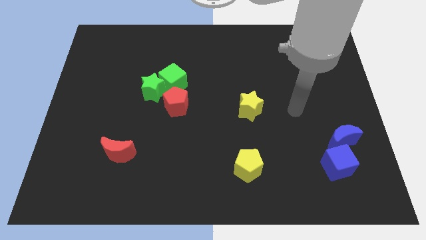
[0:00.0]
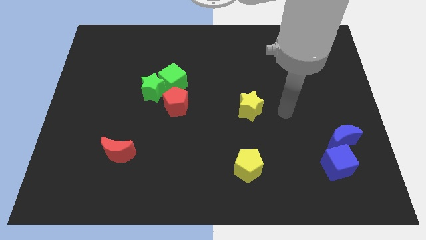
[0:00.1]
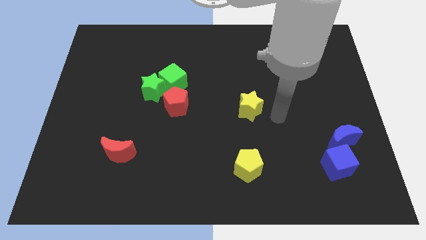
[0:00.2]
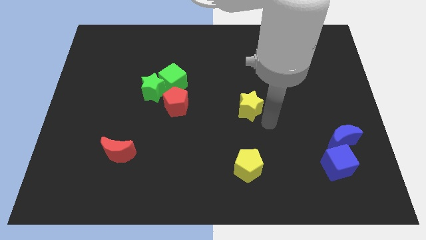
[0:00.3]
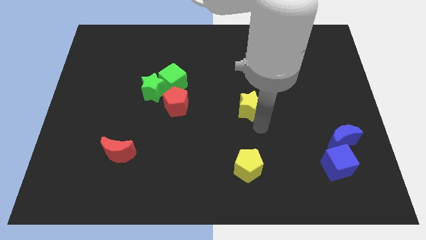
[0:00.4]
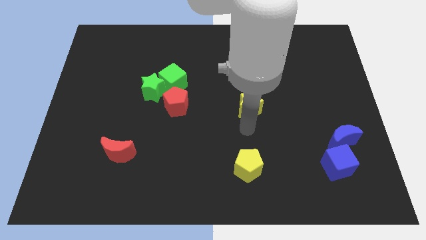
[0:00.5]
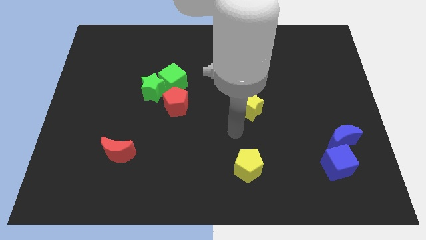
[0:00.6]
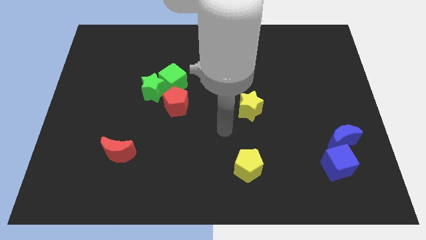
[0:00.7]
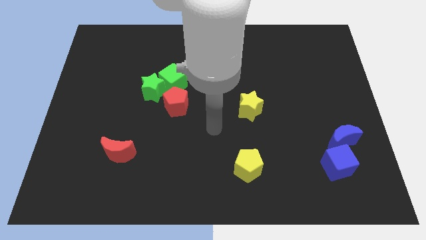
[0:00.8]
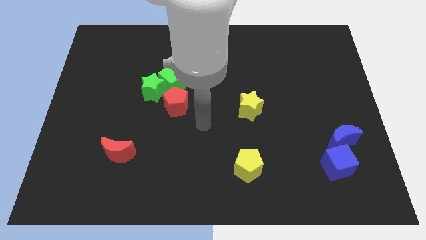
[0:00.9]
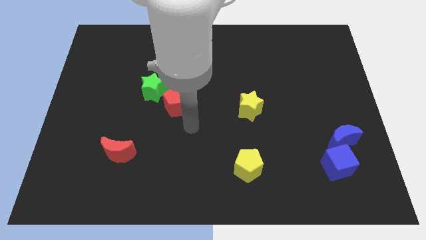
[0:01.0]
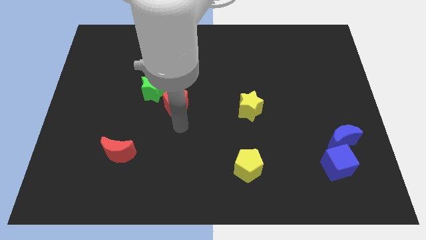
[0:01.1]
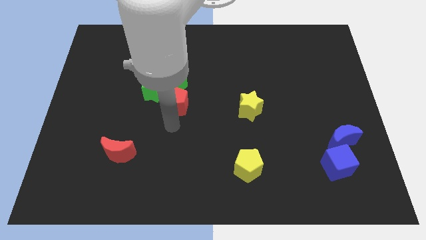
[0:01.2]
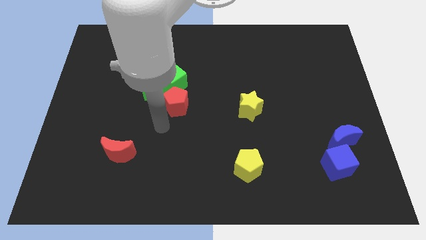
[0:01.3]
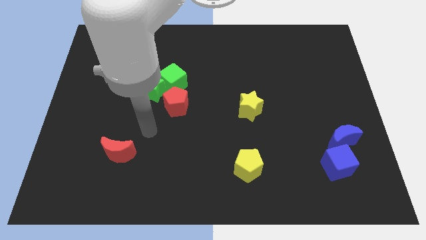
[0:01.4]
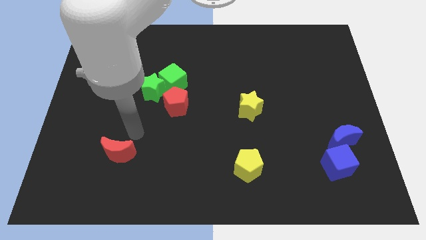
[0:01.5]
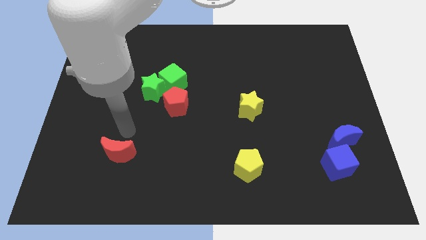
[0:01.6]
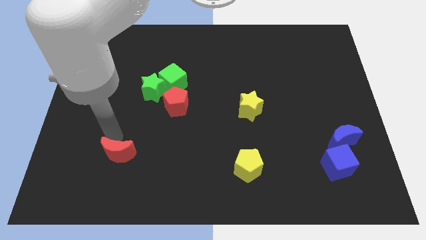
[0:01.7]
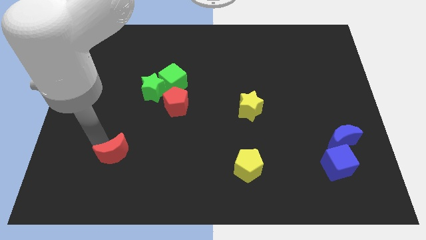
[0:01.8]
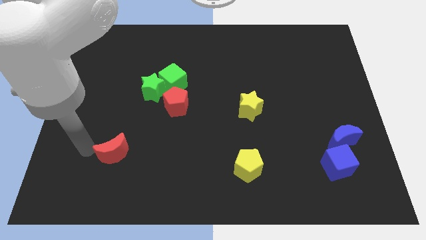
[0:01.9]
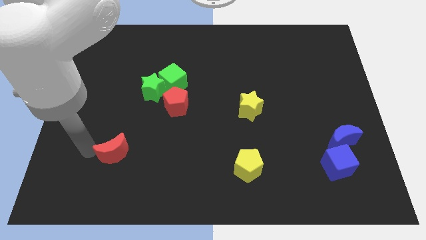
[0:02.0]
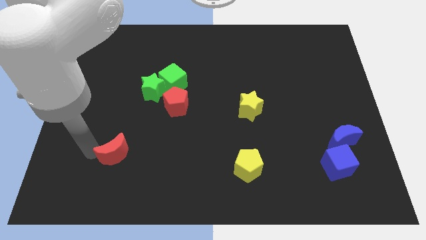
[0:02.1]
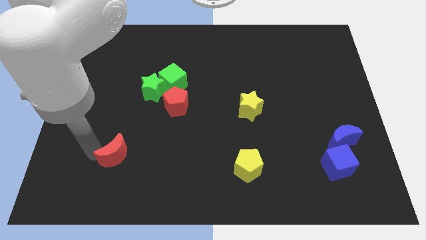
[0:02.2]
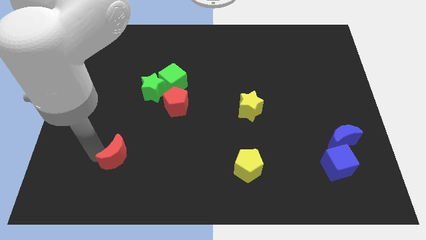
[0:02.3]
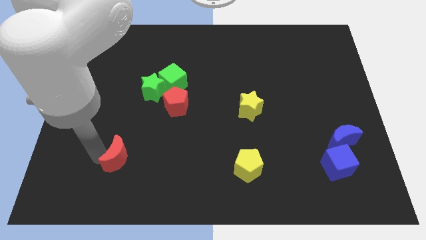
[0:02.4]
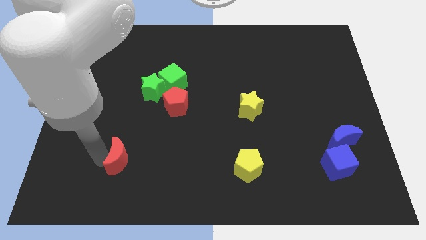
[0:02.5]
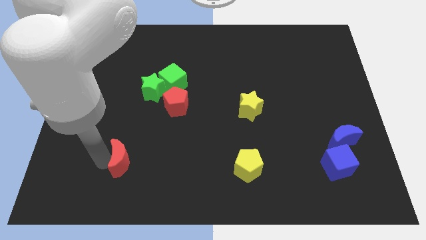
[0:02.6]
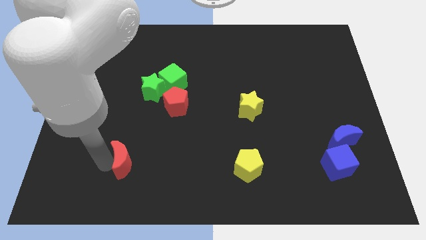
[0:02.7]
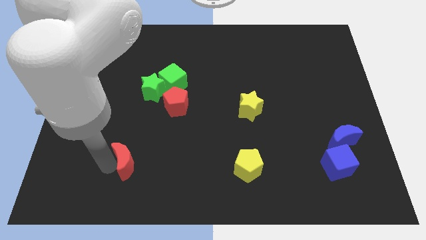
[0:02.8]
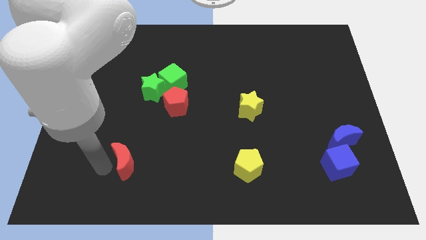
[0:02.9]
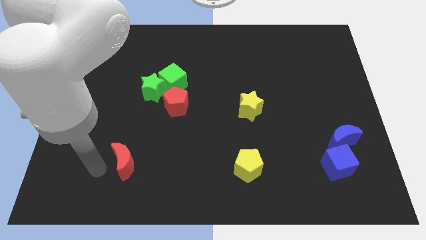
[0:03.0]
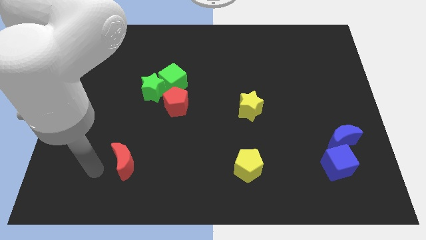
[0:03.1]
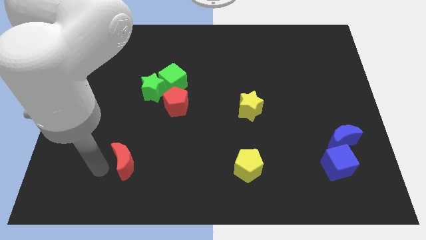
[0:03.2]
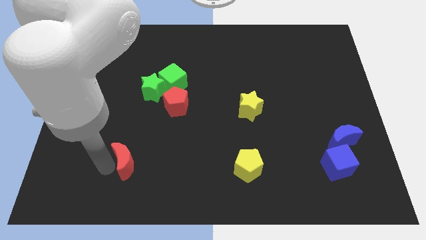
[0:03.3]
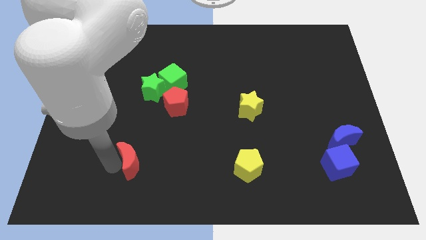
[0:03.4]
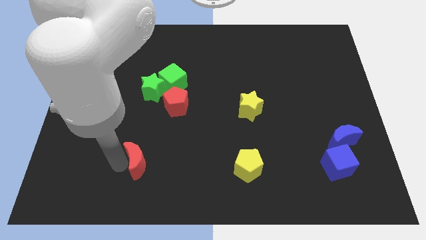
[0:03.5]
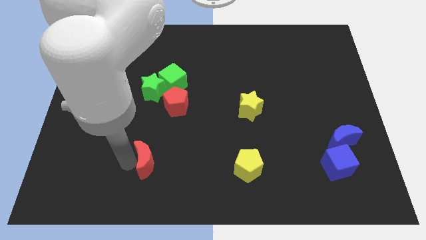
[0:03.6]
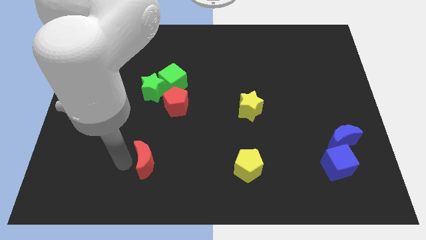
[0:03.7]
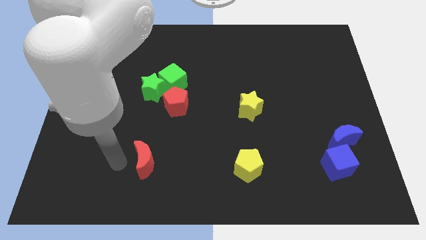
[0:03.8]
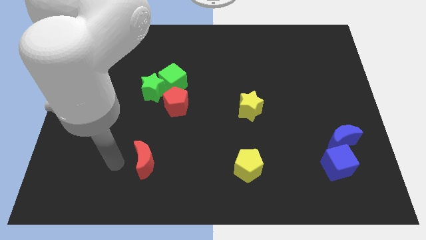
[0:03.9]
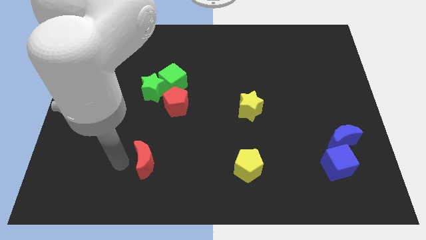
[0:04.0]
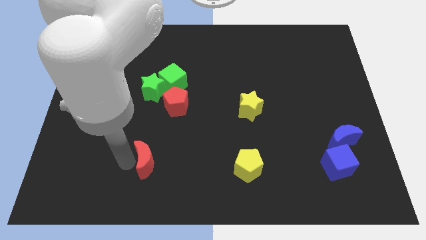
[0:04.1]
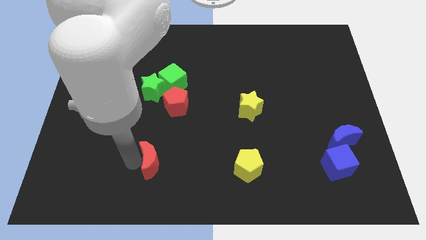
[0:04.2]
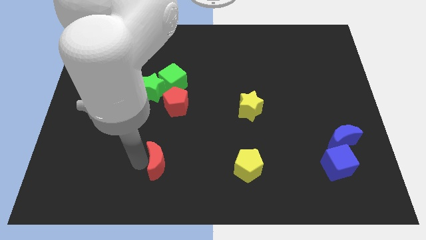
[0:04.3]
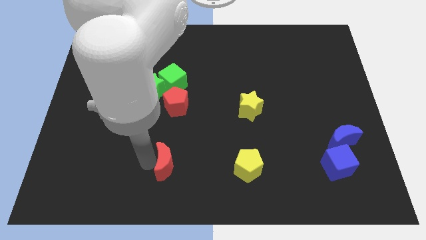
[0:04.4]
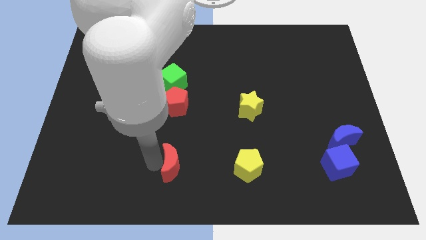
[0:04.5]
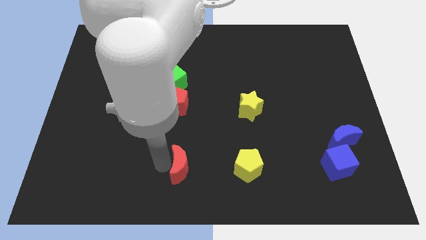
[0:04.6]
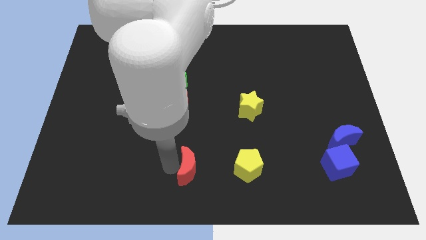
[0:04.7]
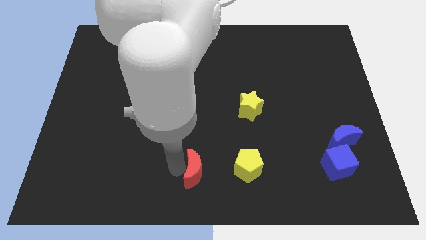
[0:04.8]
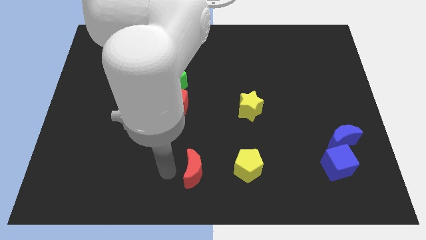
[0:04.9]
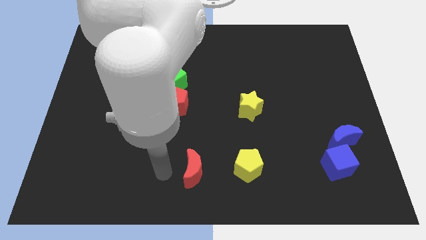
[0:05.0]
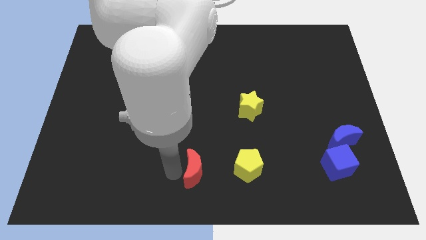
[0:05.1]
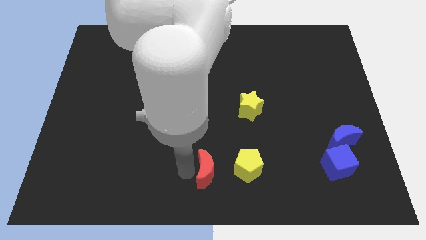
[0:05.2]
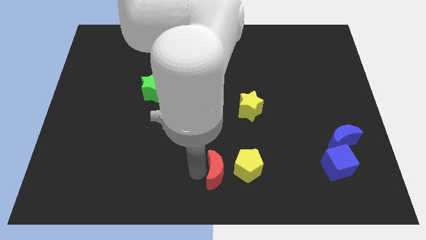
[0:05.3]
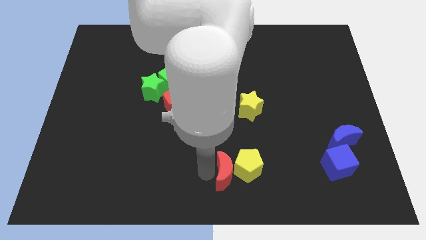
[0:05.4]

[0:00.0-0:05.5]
move the red moon to the yellow pentagon

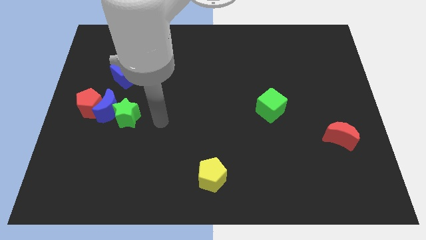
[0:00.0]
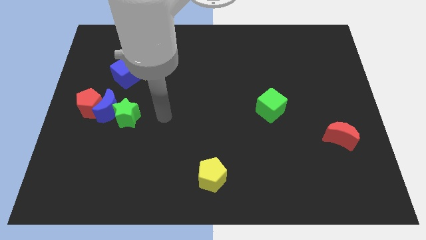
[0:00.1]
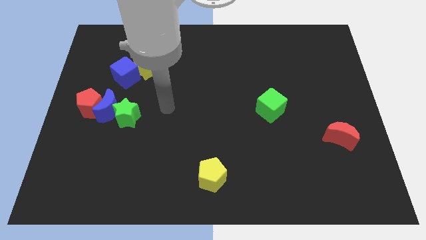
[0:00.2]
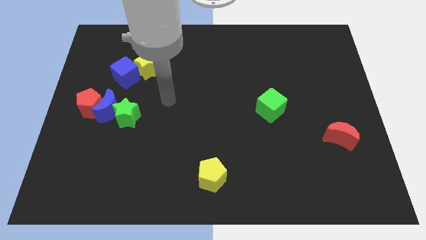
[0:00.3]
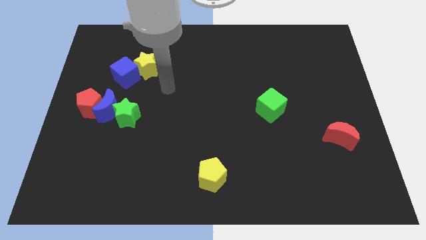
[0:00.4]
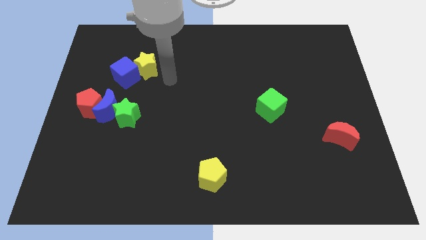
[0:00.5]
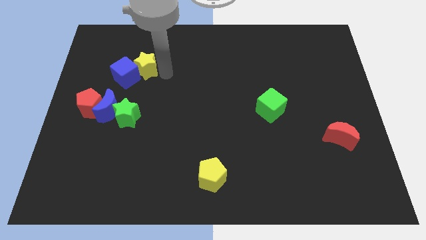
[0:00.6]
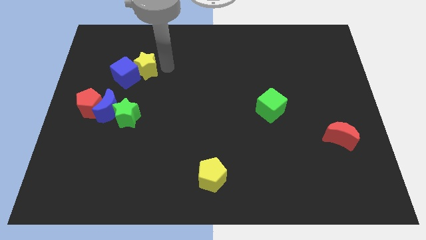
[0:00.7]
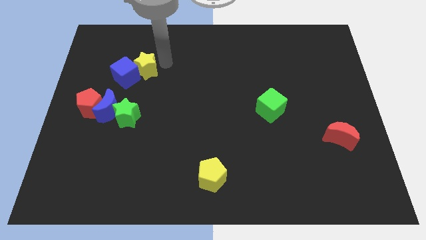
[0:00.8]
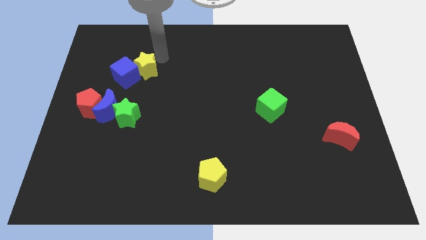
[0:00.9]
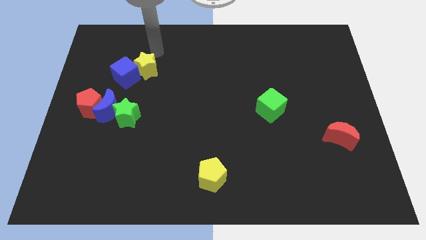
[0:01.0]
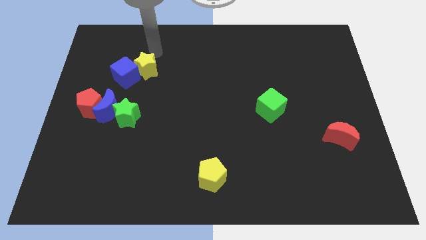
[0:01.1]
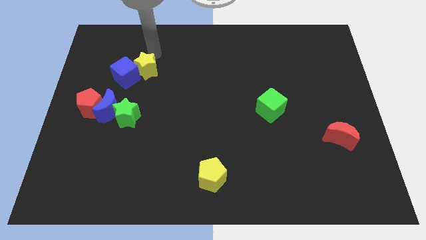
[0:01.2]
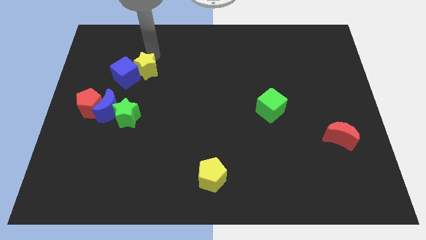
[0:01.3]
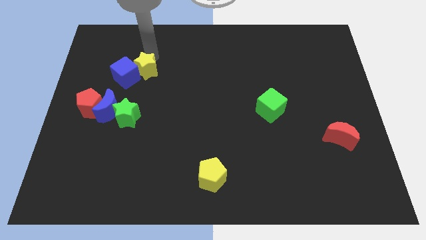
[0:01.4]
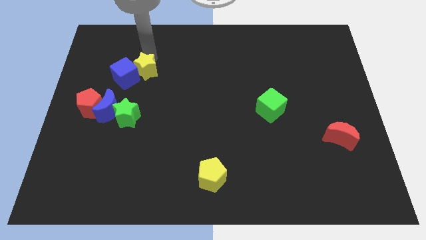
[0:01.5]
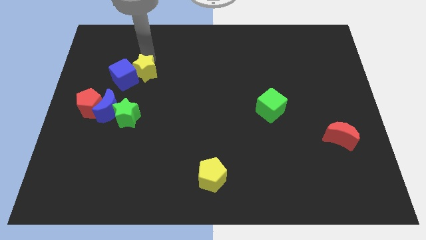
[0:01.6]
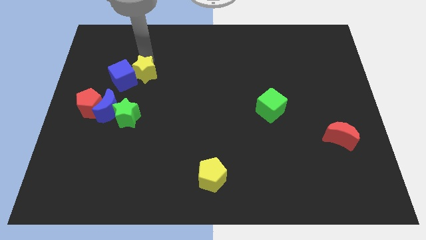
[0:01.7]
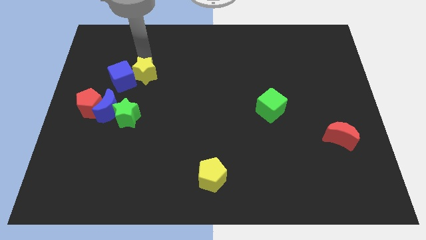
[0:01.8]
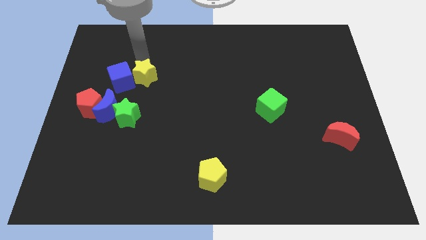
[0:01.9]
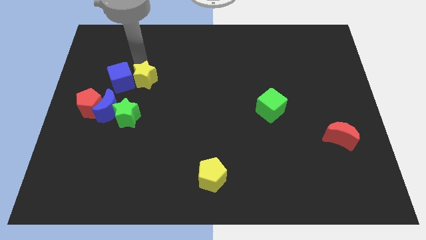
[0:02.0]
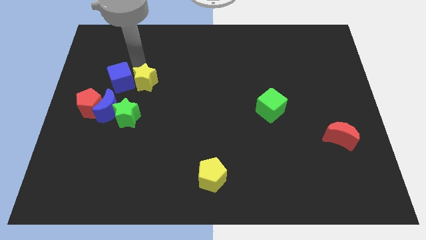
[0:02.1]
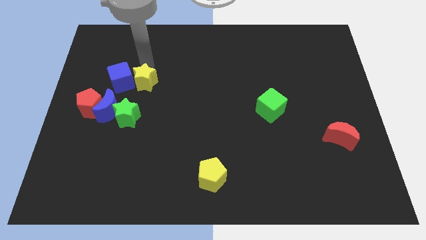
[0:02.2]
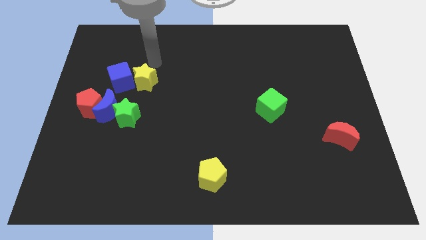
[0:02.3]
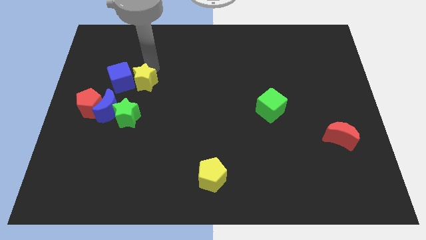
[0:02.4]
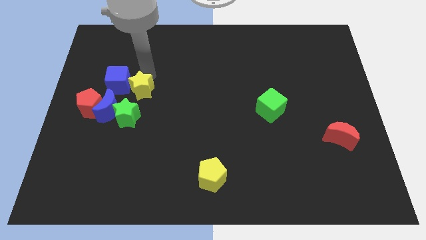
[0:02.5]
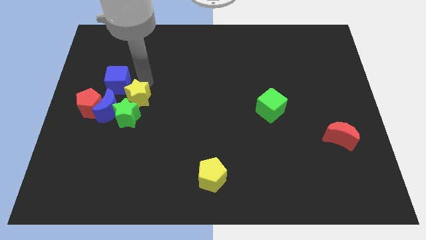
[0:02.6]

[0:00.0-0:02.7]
put the yellow star next to the green star
